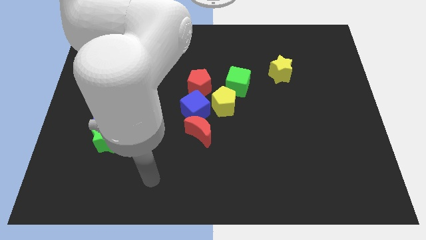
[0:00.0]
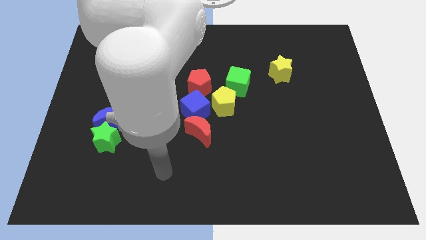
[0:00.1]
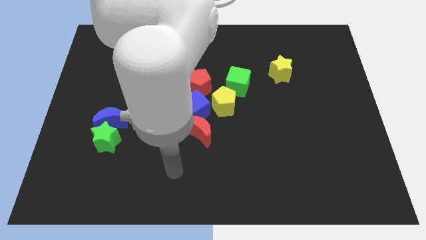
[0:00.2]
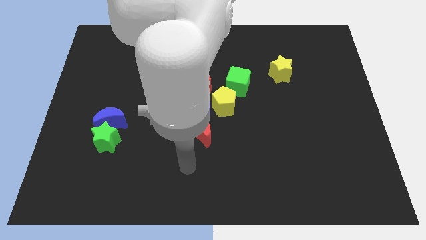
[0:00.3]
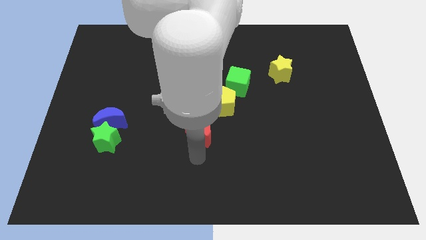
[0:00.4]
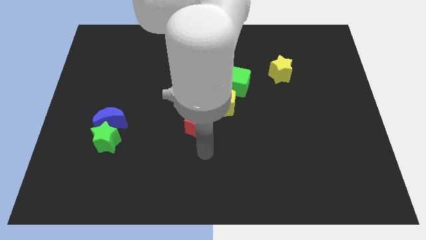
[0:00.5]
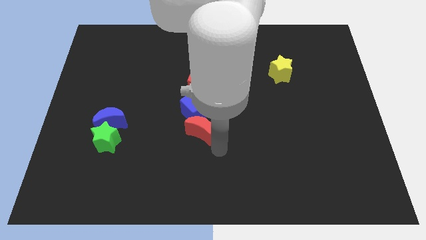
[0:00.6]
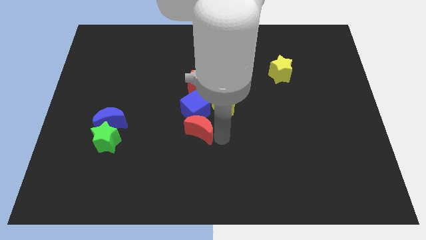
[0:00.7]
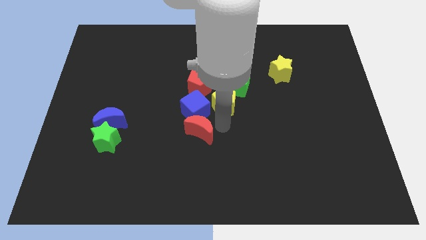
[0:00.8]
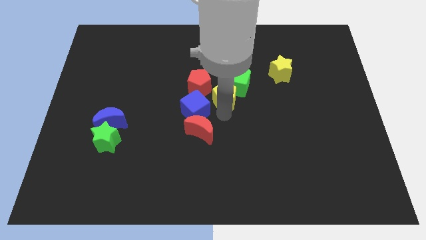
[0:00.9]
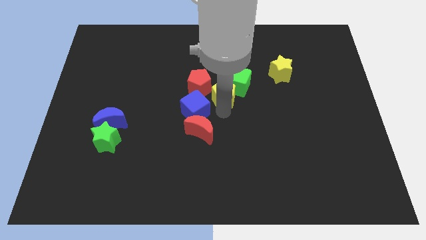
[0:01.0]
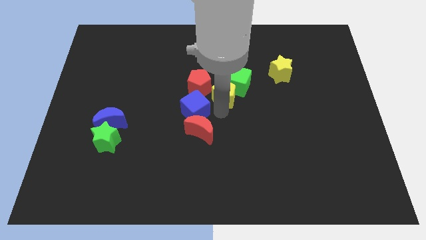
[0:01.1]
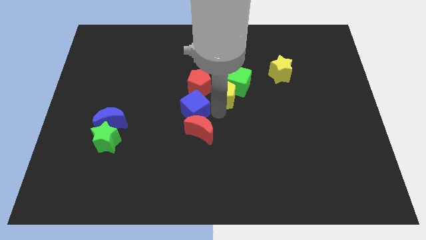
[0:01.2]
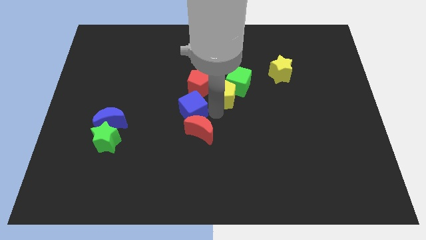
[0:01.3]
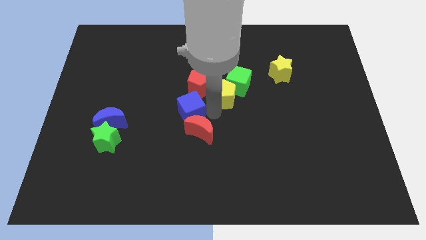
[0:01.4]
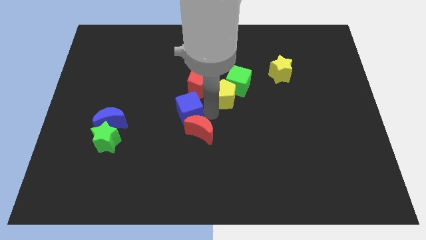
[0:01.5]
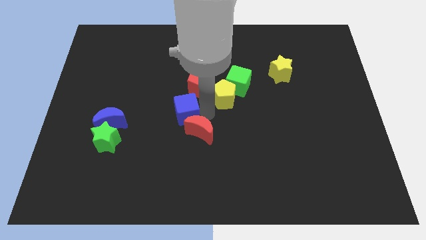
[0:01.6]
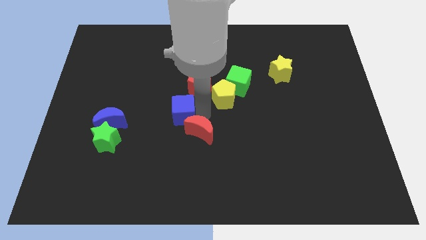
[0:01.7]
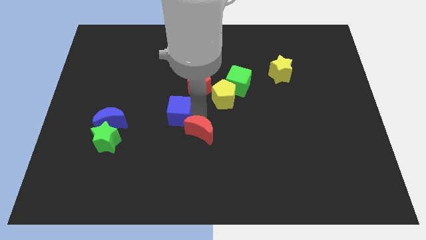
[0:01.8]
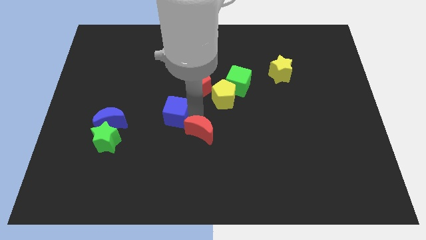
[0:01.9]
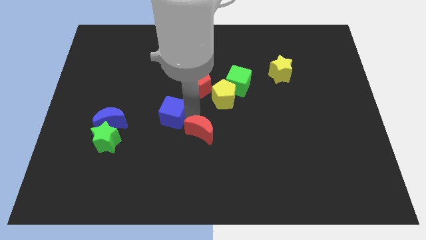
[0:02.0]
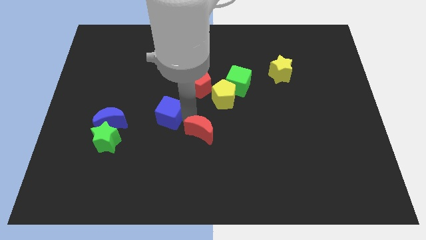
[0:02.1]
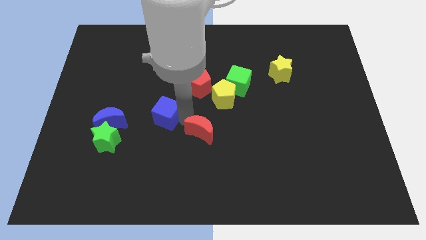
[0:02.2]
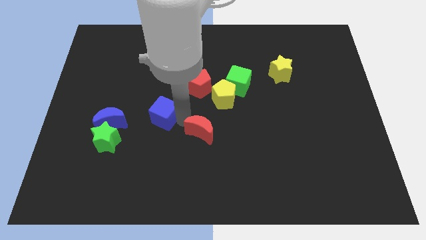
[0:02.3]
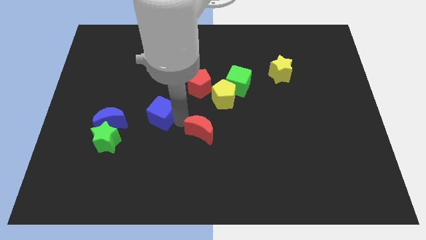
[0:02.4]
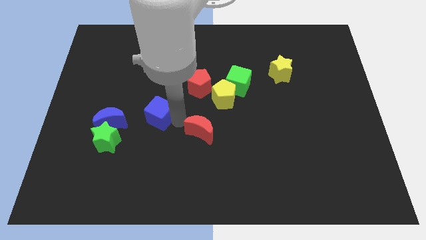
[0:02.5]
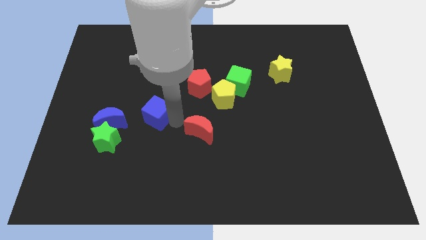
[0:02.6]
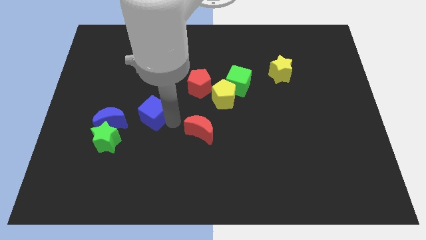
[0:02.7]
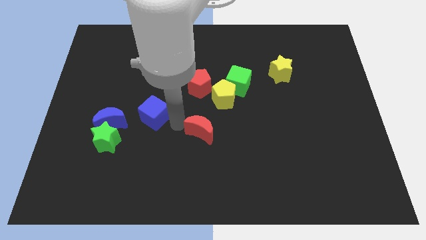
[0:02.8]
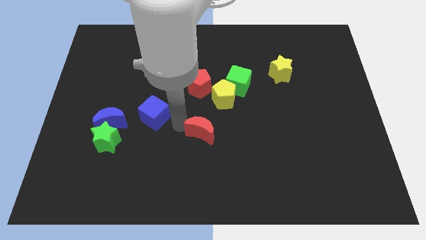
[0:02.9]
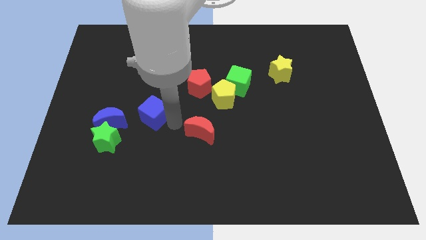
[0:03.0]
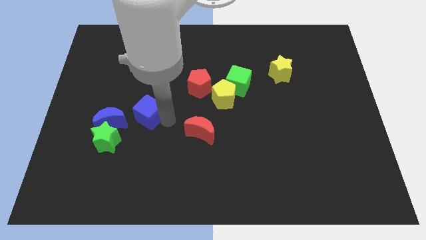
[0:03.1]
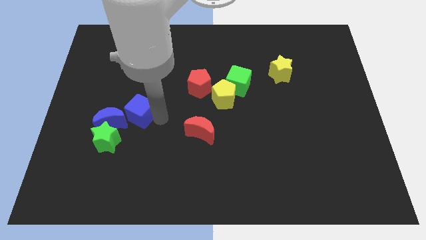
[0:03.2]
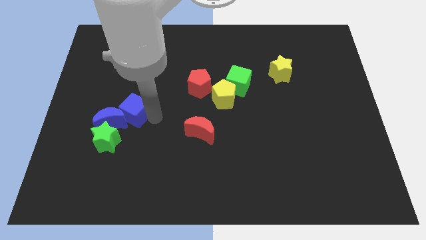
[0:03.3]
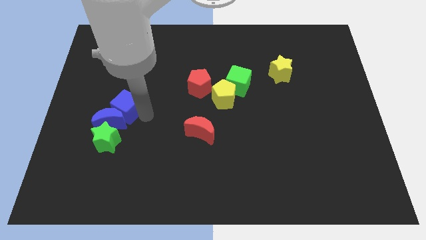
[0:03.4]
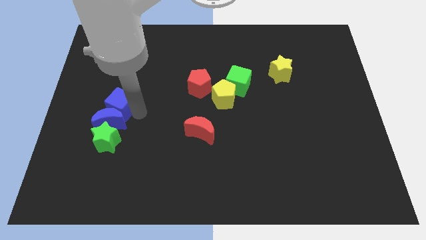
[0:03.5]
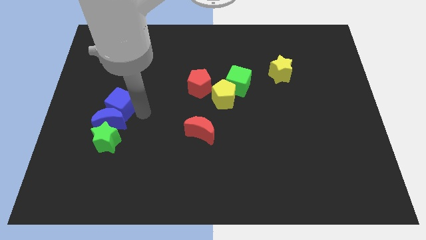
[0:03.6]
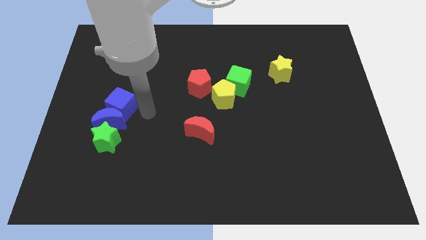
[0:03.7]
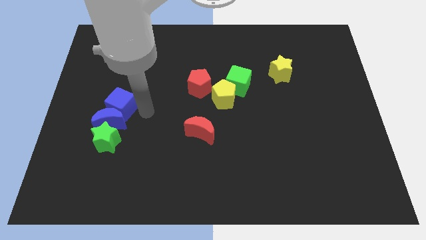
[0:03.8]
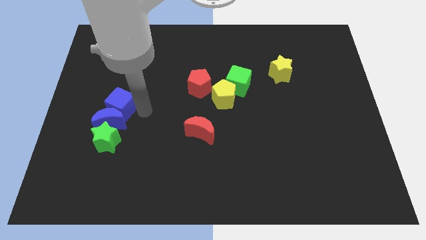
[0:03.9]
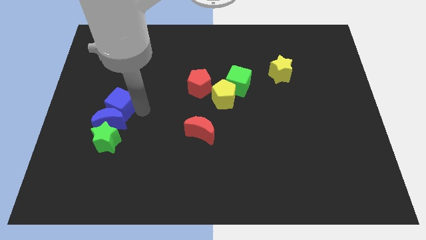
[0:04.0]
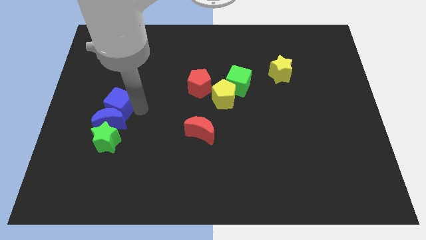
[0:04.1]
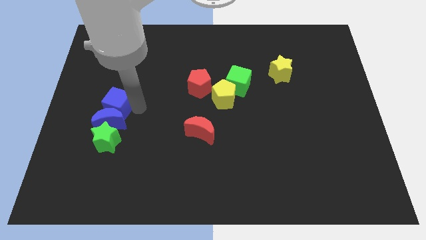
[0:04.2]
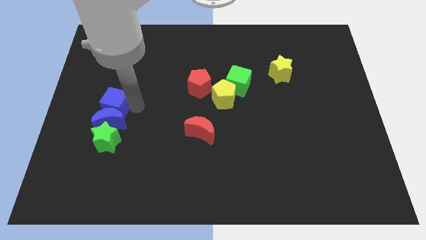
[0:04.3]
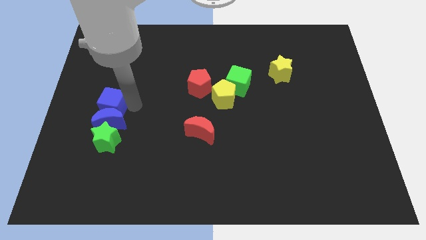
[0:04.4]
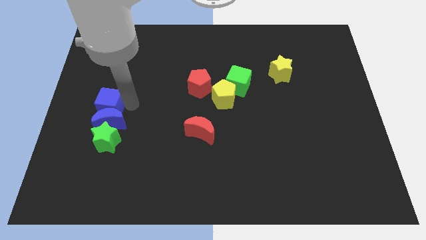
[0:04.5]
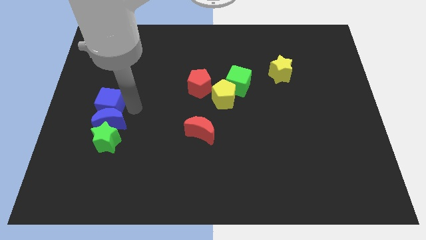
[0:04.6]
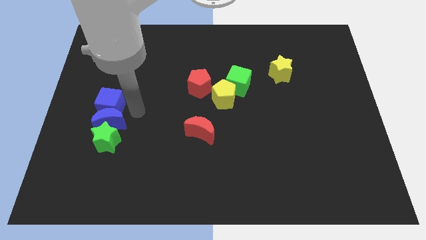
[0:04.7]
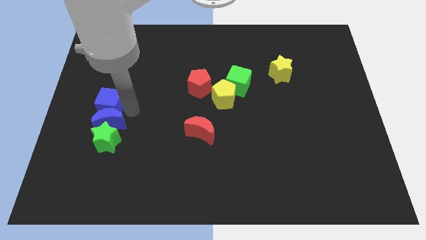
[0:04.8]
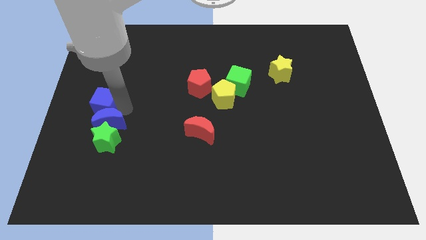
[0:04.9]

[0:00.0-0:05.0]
slide the blue cube to the center left

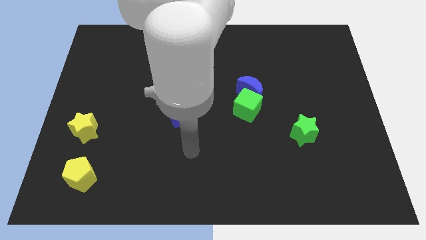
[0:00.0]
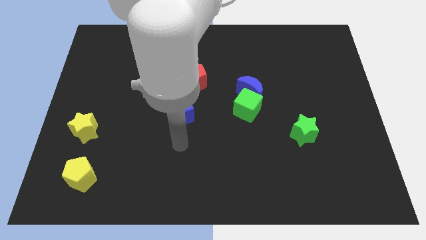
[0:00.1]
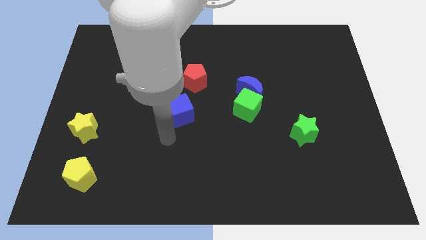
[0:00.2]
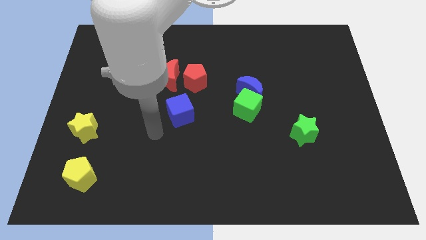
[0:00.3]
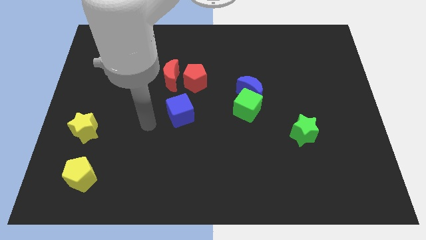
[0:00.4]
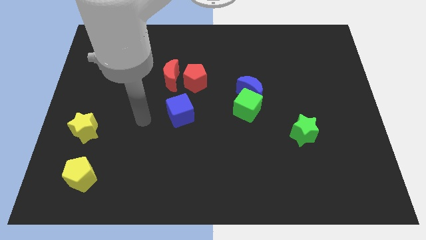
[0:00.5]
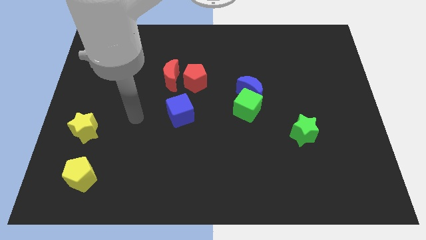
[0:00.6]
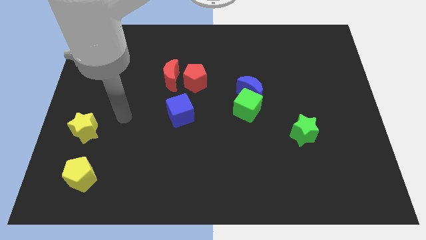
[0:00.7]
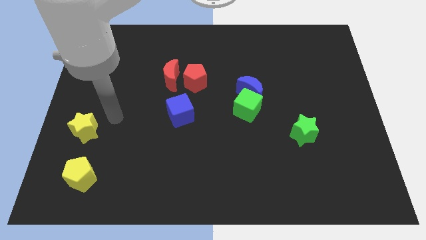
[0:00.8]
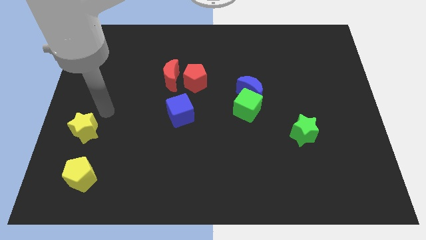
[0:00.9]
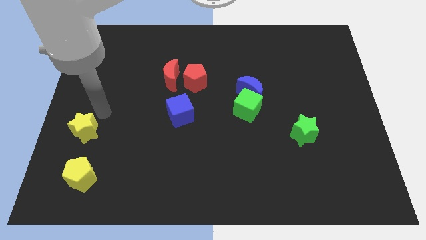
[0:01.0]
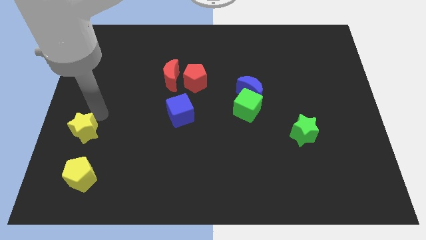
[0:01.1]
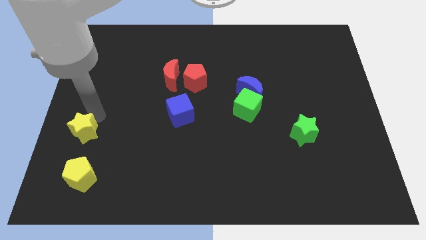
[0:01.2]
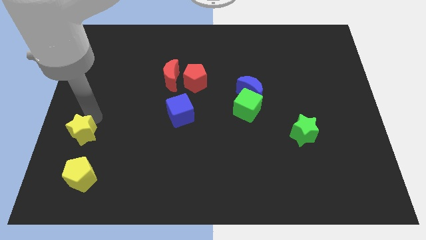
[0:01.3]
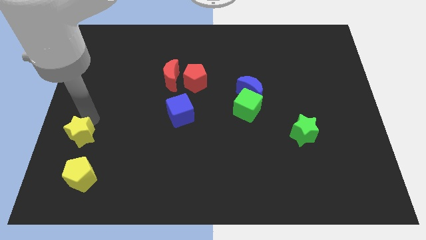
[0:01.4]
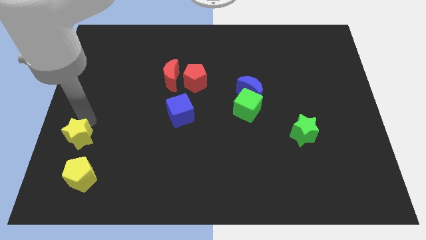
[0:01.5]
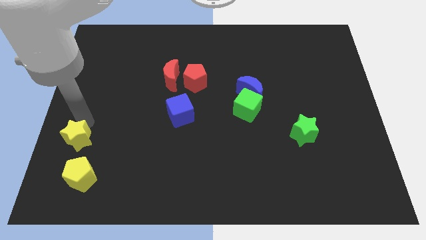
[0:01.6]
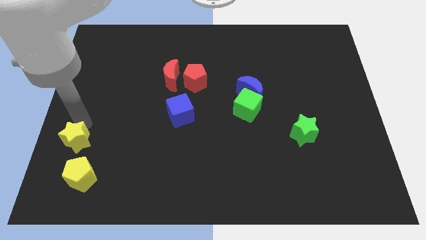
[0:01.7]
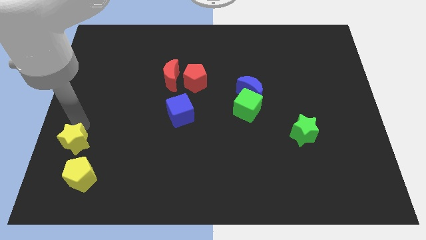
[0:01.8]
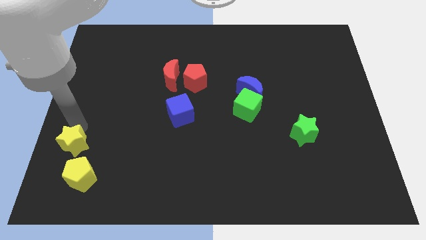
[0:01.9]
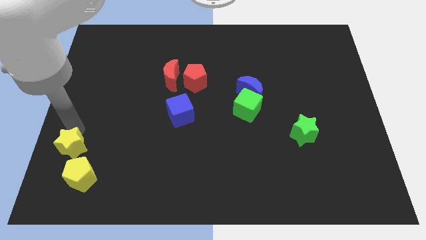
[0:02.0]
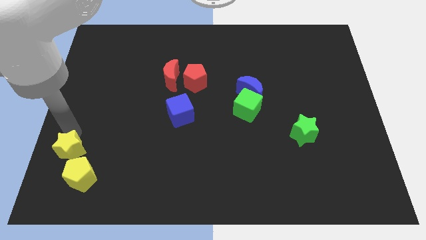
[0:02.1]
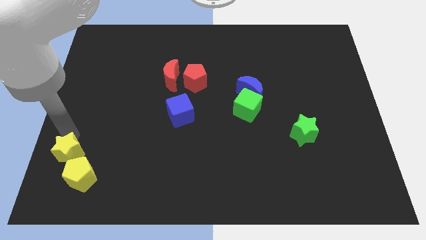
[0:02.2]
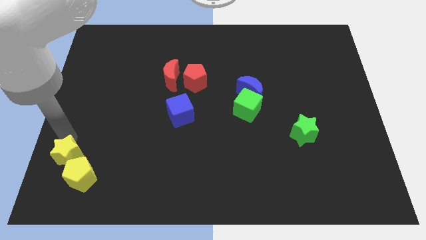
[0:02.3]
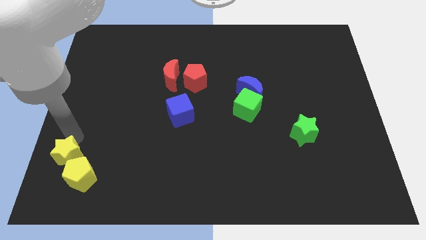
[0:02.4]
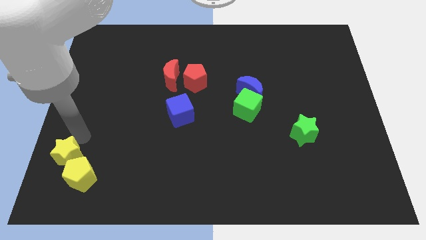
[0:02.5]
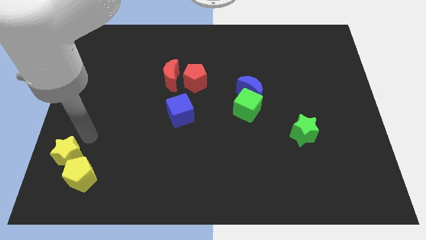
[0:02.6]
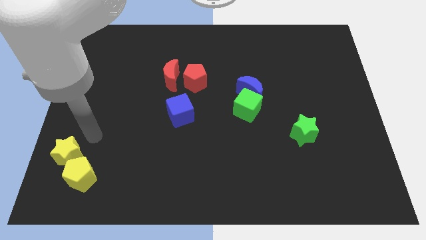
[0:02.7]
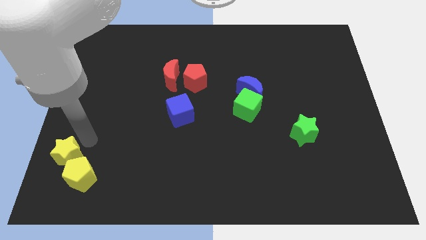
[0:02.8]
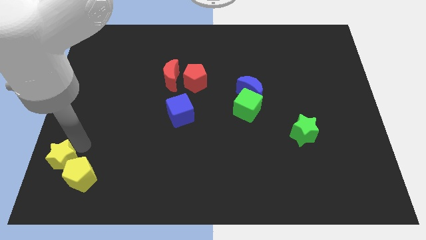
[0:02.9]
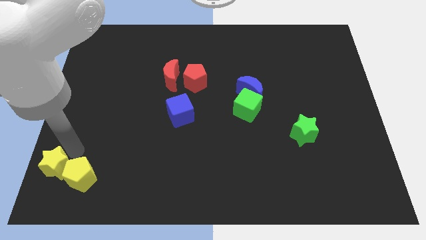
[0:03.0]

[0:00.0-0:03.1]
move the yellow star to the bottom left corner
